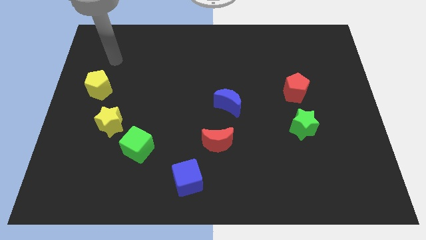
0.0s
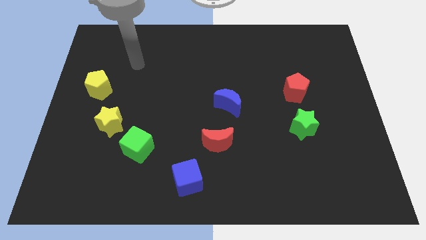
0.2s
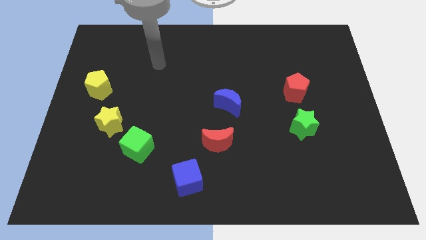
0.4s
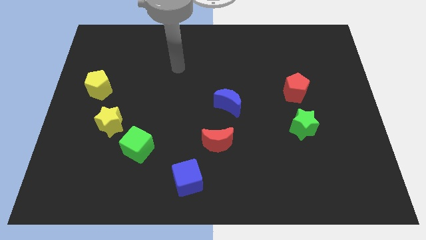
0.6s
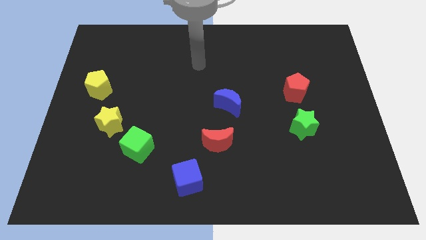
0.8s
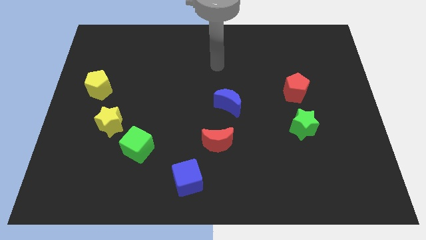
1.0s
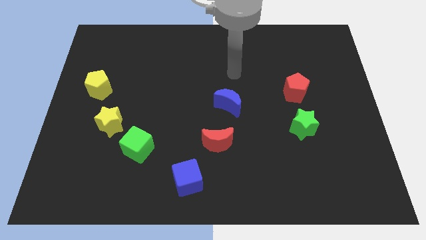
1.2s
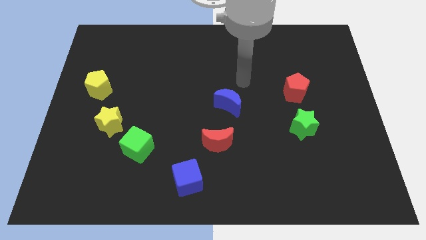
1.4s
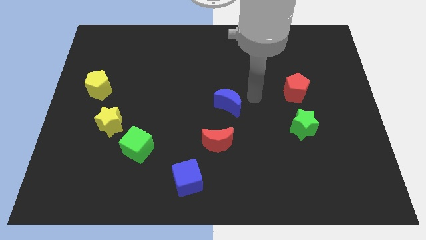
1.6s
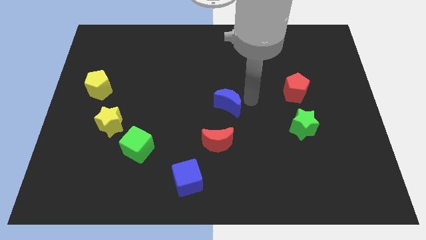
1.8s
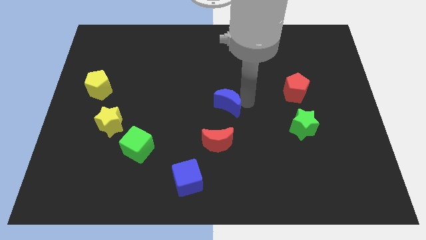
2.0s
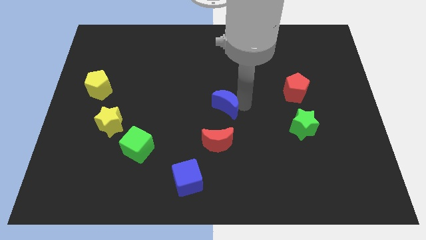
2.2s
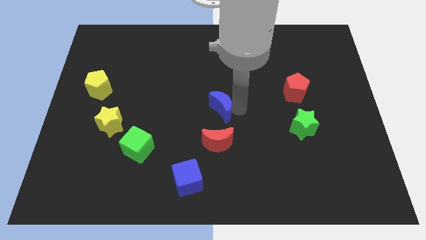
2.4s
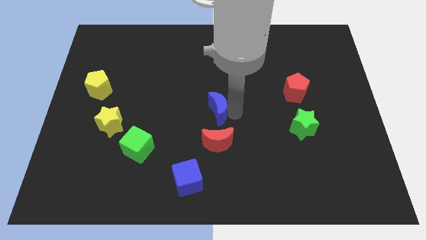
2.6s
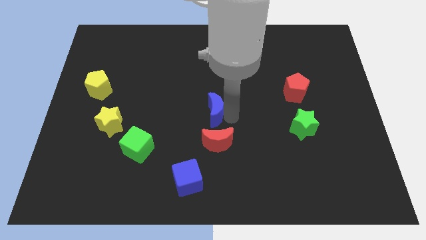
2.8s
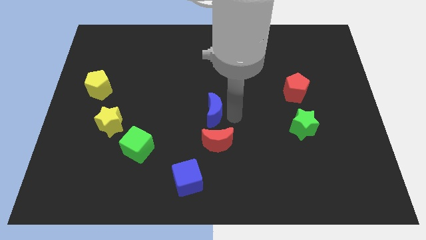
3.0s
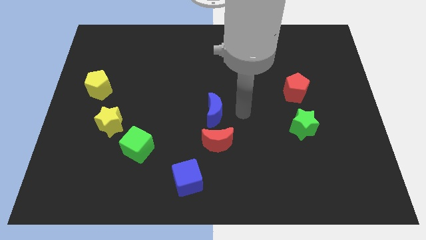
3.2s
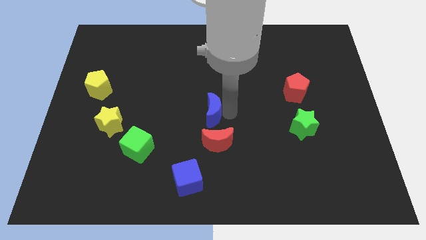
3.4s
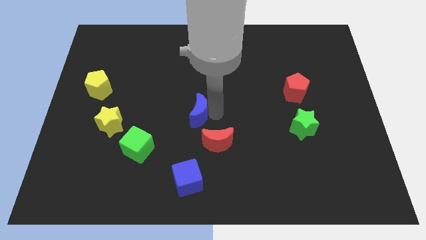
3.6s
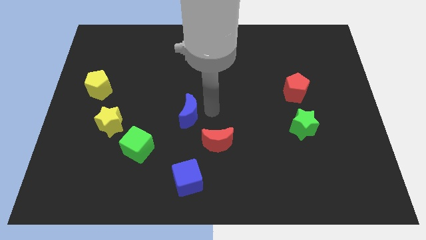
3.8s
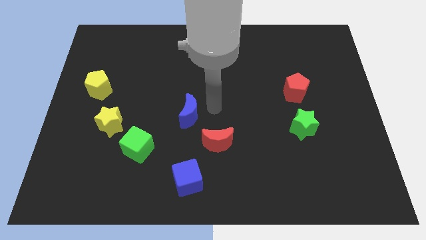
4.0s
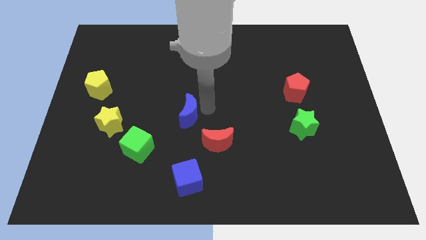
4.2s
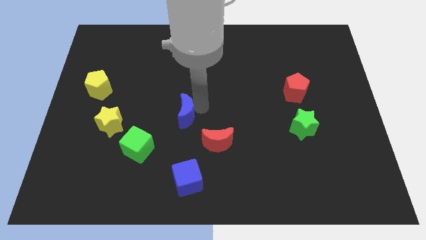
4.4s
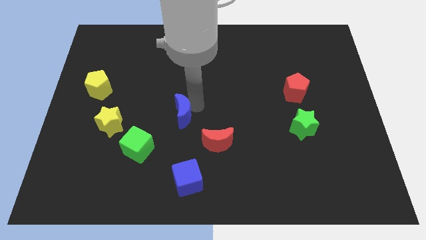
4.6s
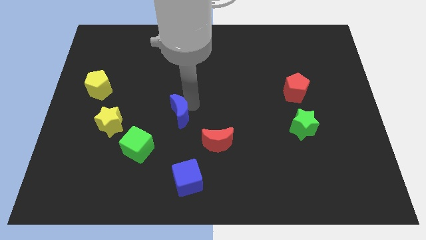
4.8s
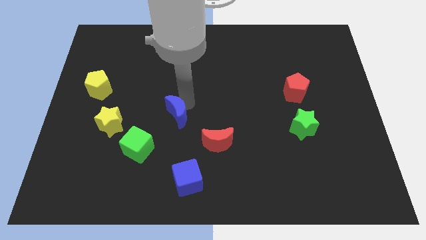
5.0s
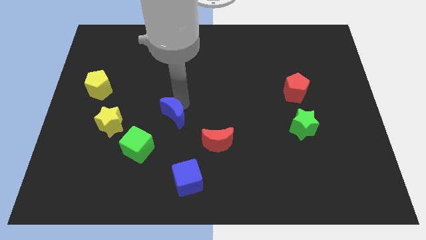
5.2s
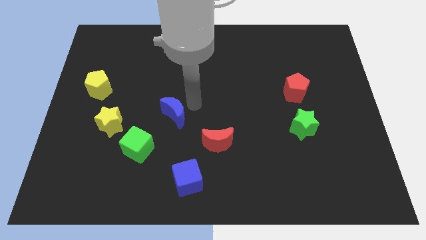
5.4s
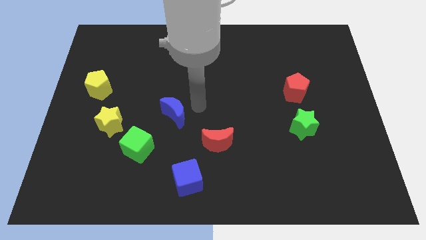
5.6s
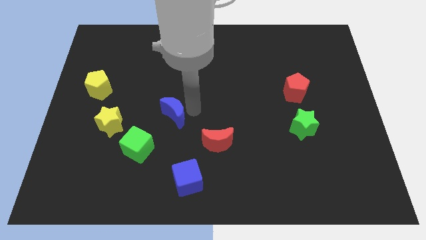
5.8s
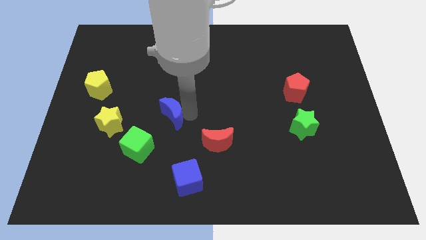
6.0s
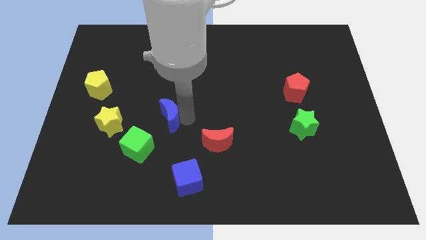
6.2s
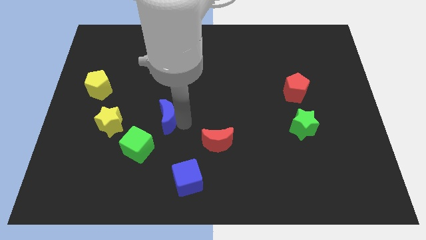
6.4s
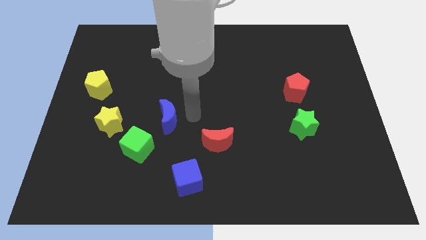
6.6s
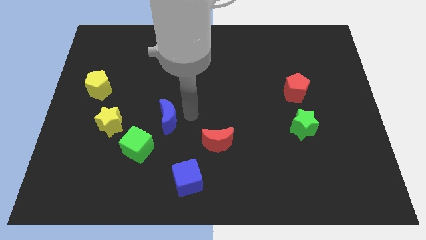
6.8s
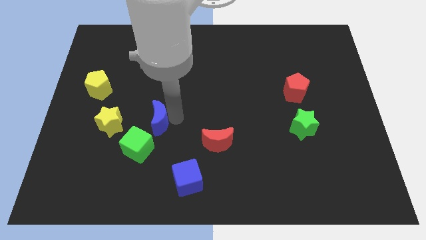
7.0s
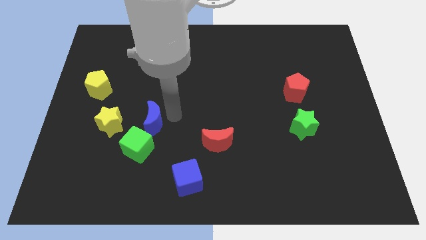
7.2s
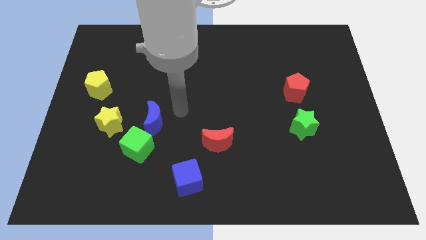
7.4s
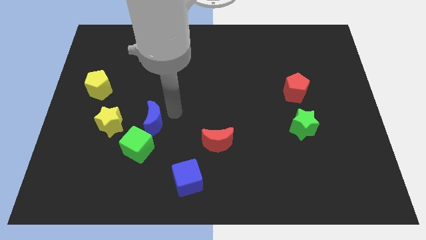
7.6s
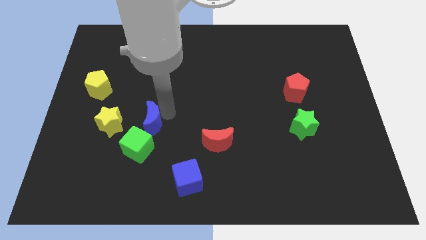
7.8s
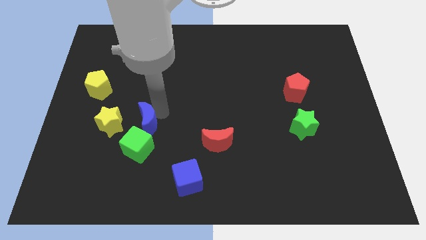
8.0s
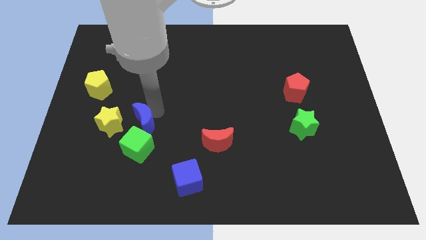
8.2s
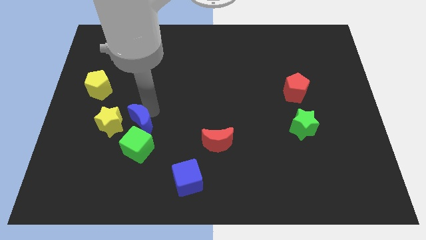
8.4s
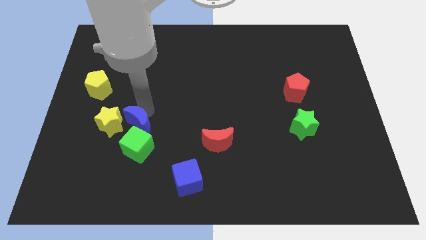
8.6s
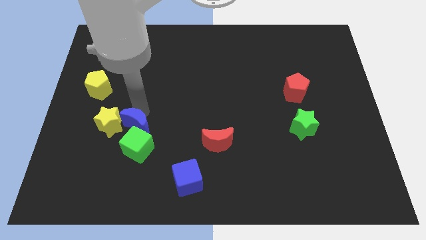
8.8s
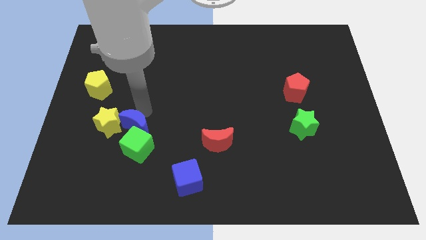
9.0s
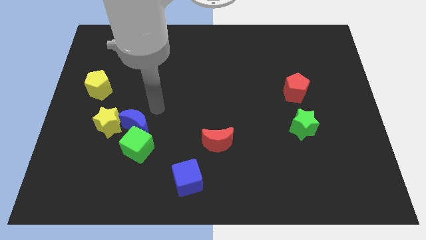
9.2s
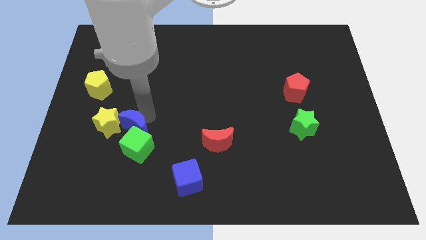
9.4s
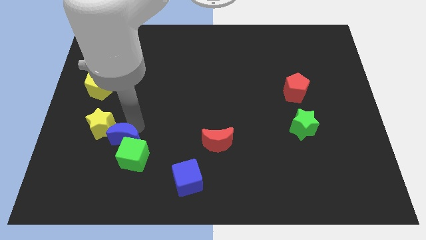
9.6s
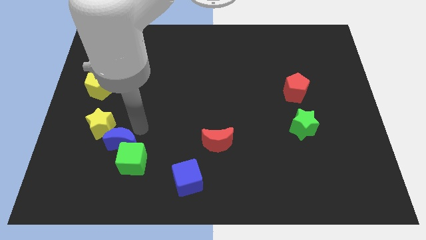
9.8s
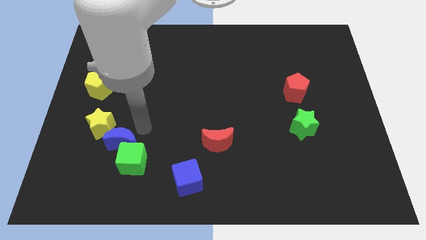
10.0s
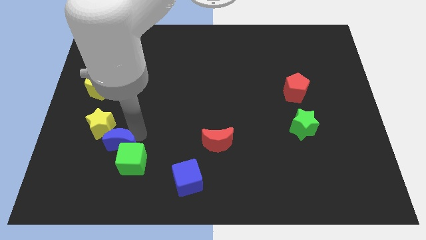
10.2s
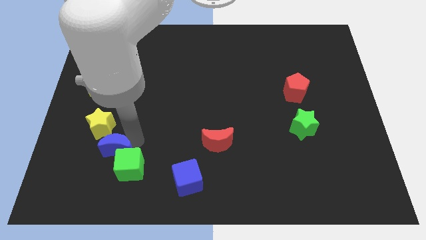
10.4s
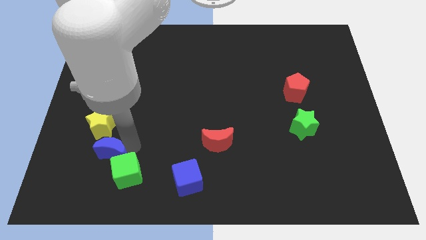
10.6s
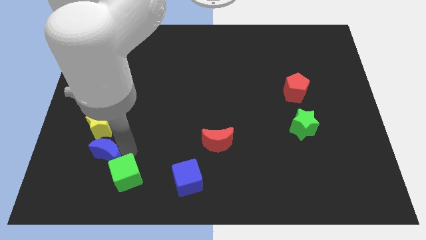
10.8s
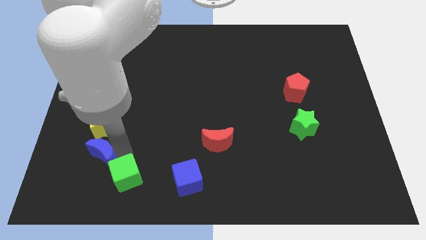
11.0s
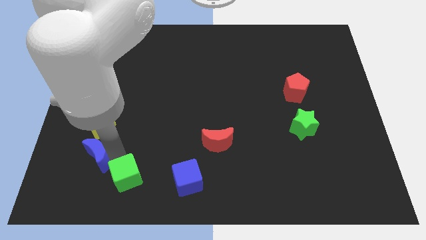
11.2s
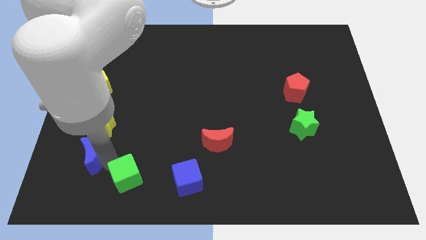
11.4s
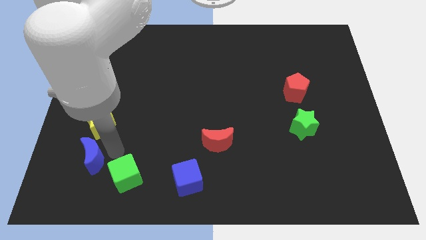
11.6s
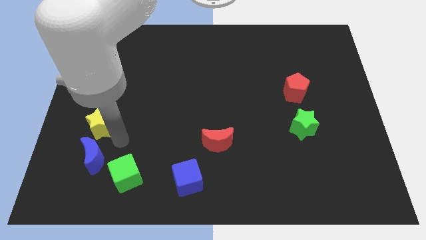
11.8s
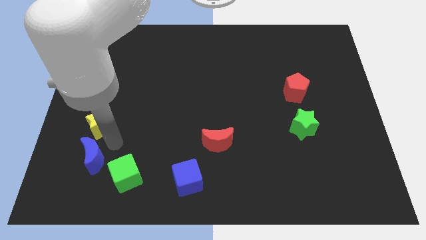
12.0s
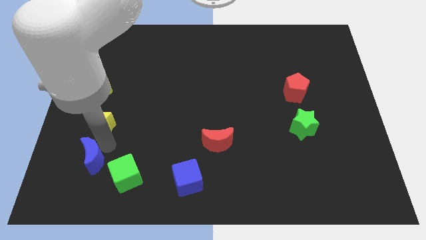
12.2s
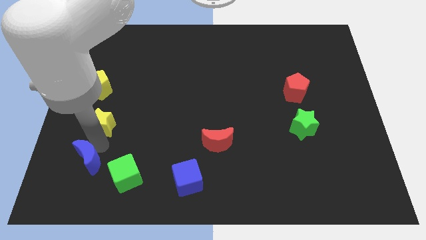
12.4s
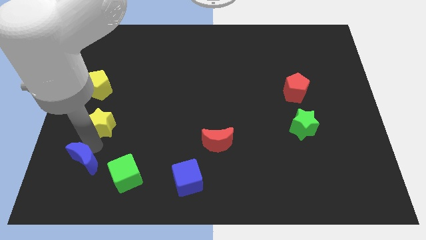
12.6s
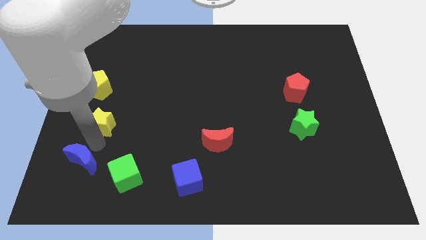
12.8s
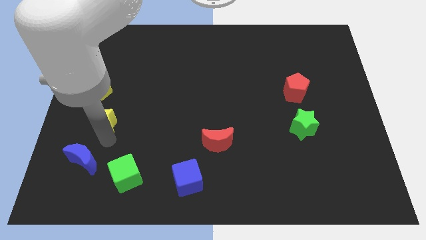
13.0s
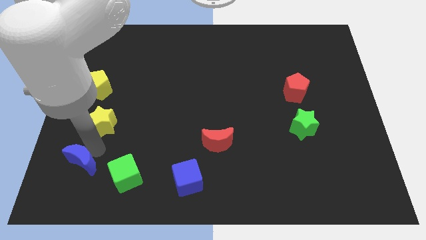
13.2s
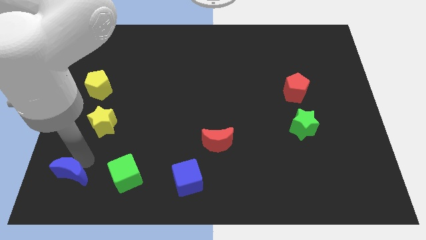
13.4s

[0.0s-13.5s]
push the blue moon to the bottom left
